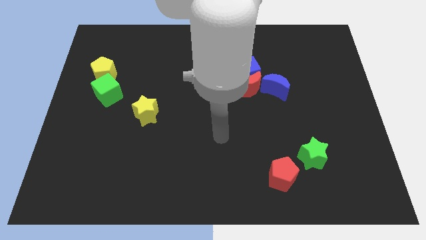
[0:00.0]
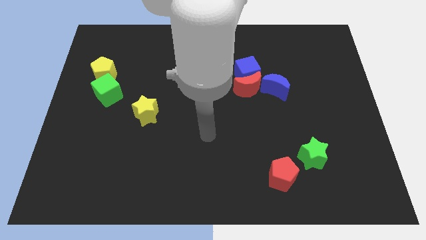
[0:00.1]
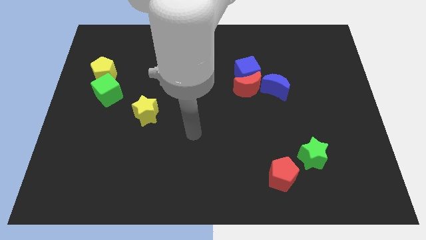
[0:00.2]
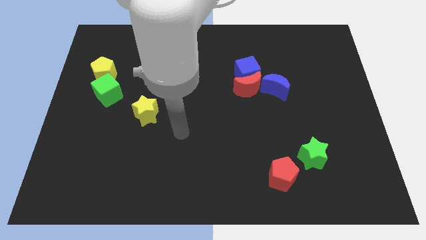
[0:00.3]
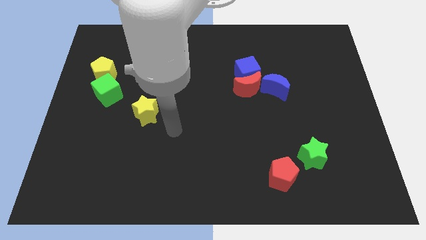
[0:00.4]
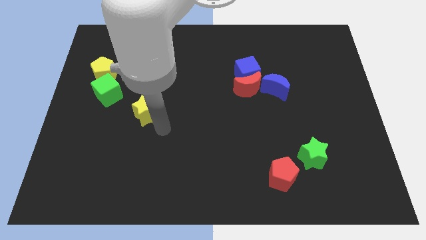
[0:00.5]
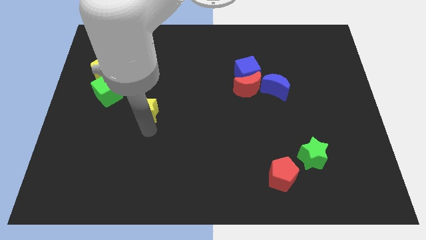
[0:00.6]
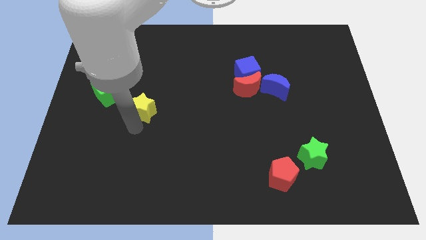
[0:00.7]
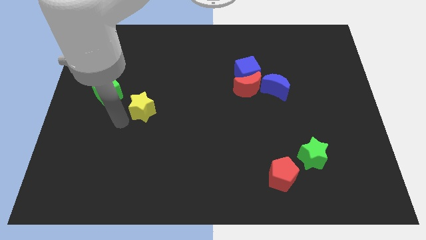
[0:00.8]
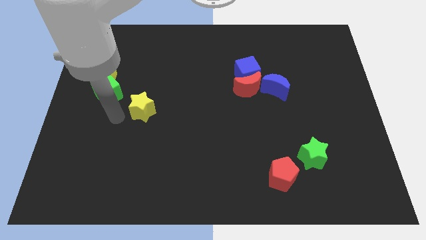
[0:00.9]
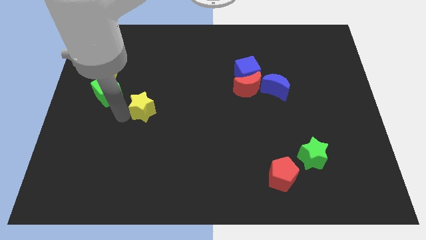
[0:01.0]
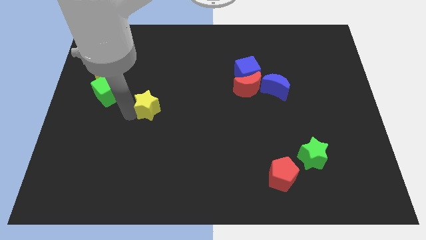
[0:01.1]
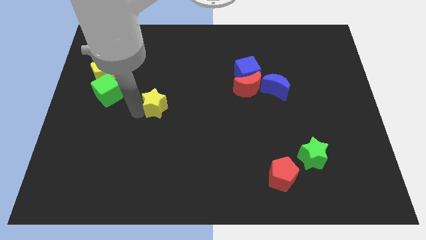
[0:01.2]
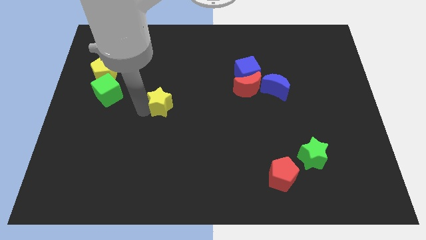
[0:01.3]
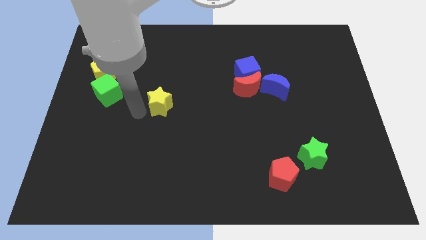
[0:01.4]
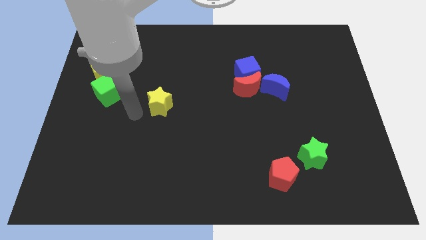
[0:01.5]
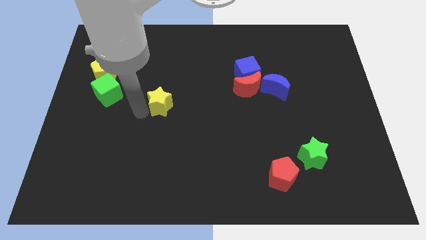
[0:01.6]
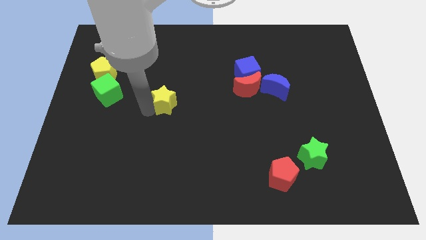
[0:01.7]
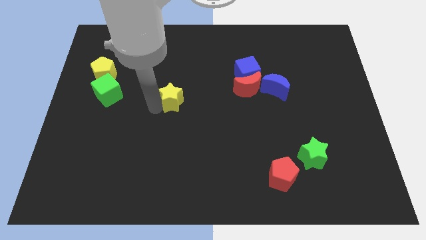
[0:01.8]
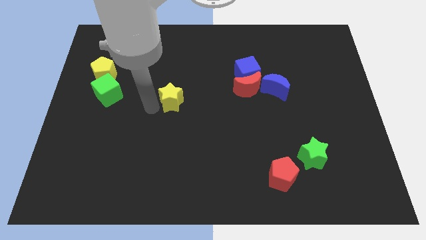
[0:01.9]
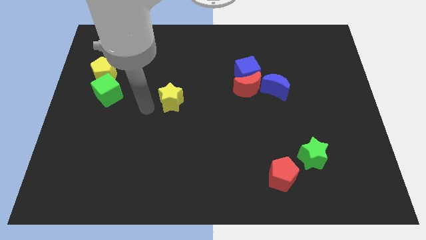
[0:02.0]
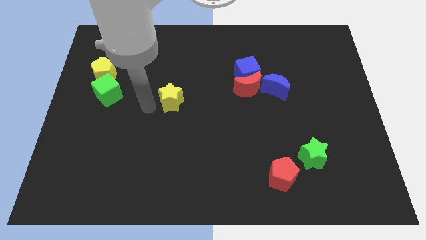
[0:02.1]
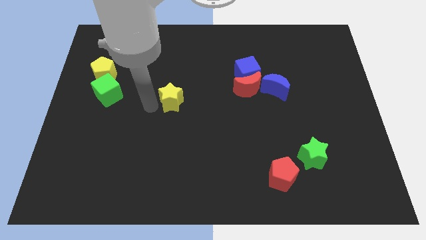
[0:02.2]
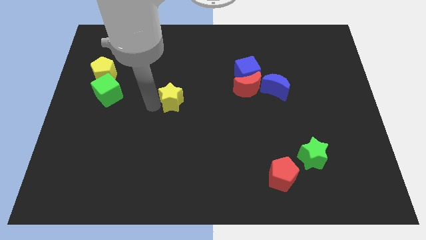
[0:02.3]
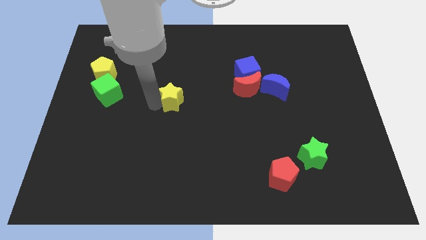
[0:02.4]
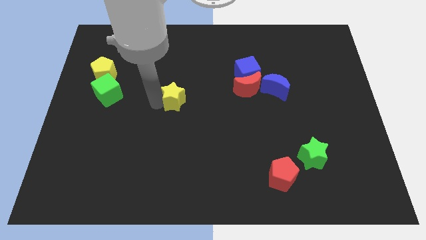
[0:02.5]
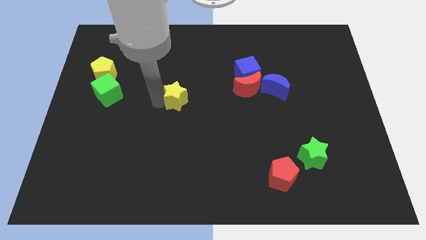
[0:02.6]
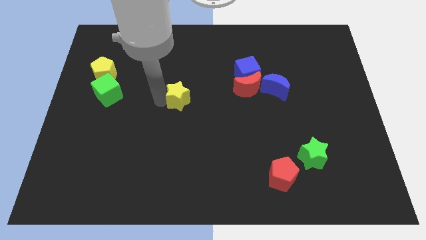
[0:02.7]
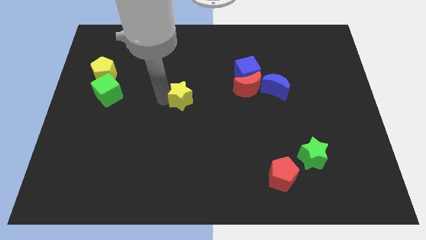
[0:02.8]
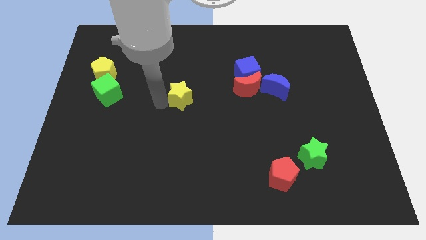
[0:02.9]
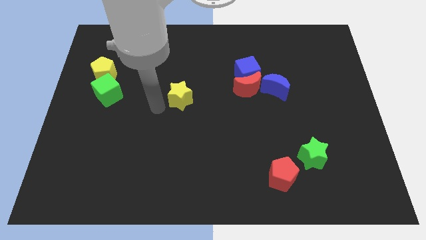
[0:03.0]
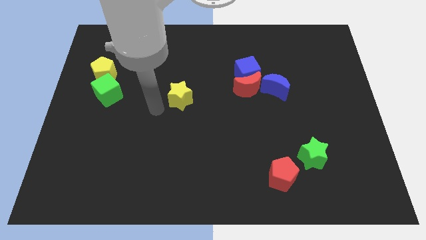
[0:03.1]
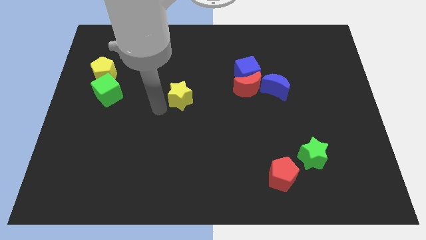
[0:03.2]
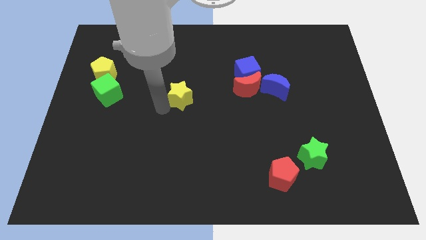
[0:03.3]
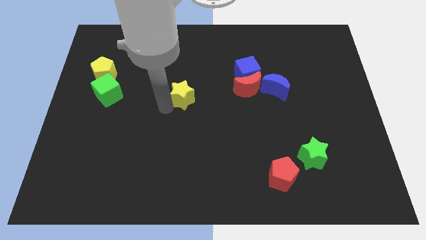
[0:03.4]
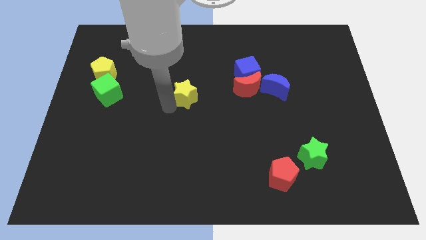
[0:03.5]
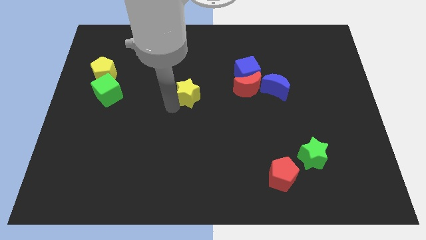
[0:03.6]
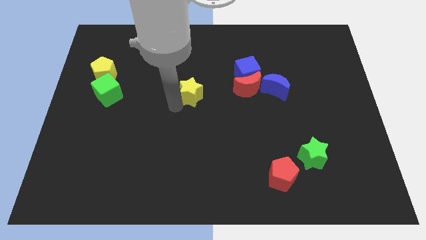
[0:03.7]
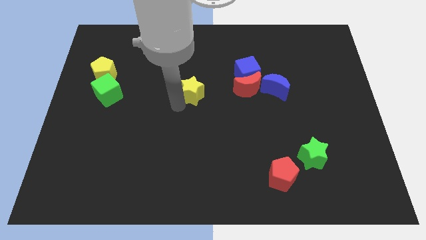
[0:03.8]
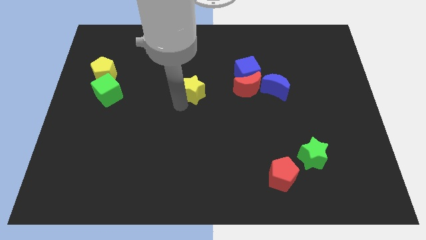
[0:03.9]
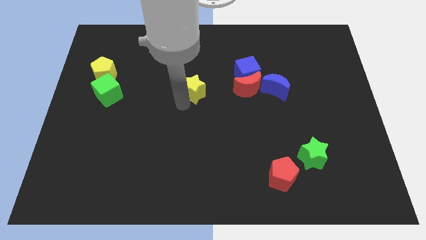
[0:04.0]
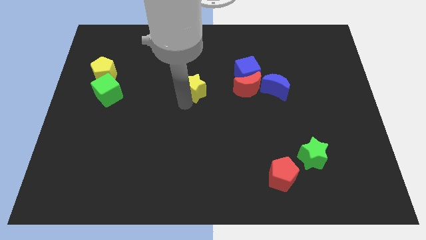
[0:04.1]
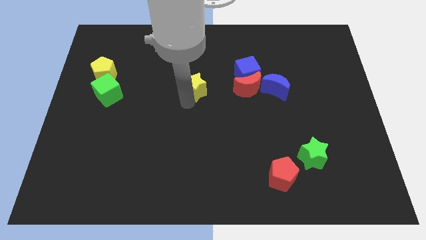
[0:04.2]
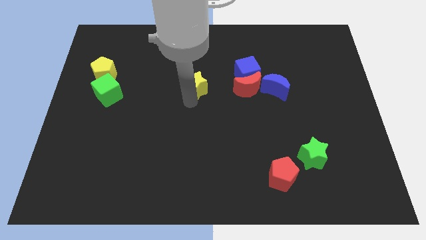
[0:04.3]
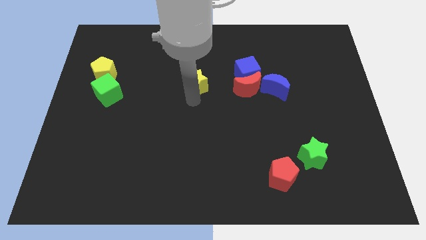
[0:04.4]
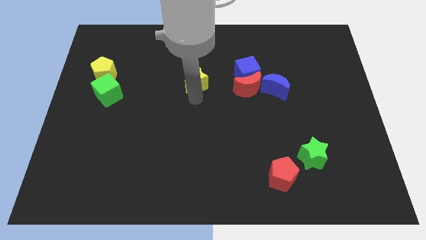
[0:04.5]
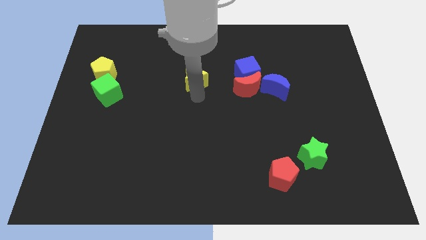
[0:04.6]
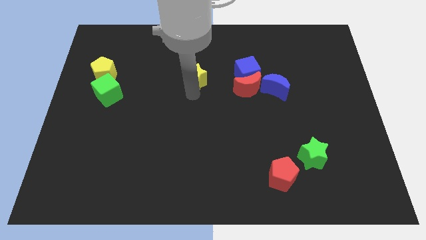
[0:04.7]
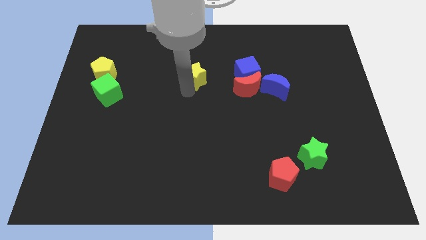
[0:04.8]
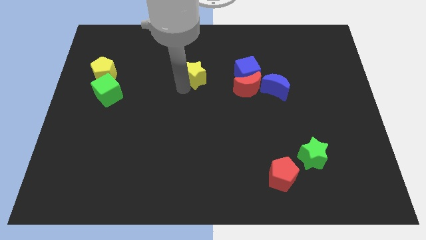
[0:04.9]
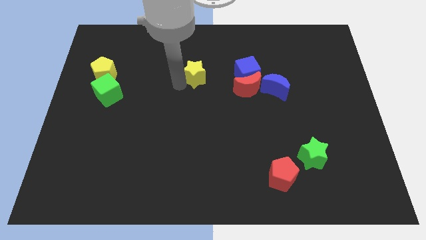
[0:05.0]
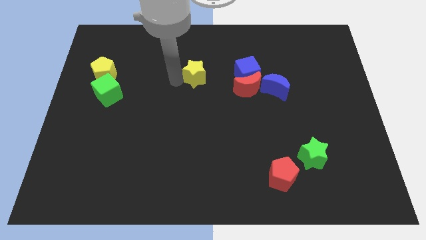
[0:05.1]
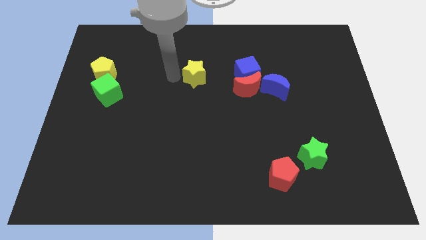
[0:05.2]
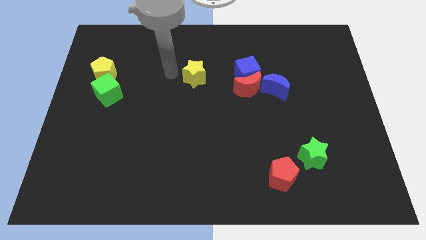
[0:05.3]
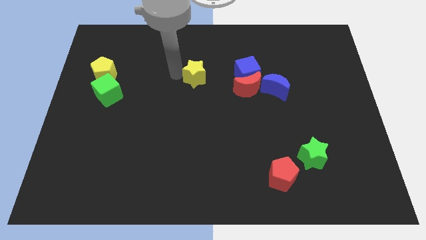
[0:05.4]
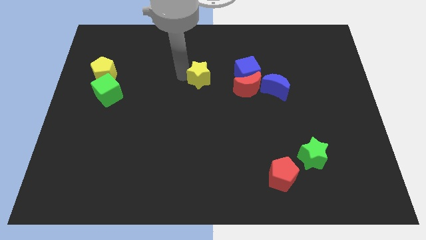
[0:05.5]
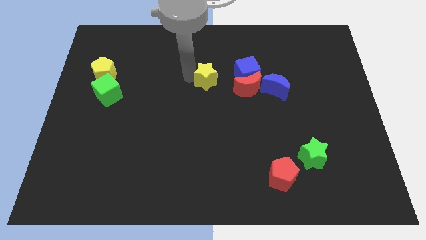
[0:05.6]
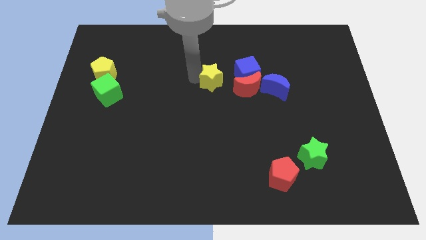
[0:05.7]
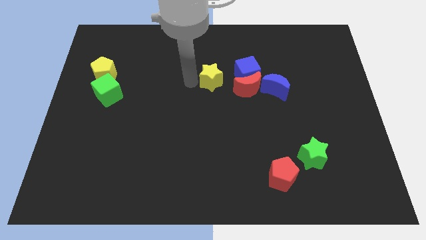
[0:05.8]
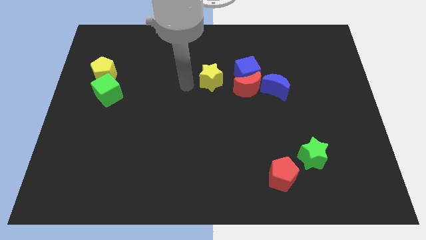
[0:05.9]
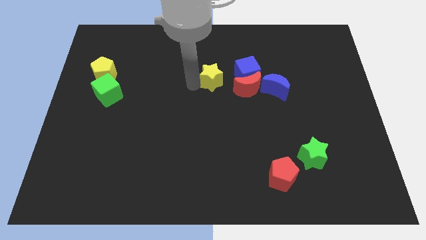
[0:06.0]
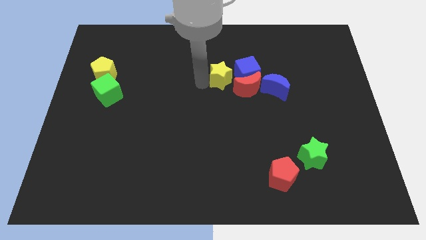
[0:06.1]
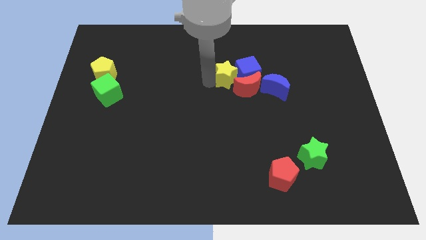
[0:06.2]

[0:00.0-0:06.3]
move the yellow star next to the blue cube

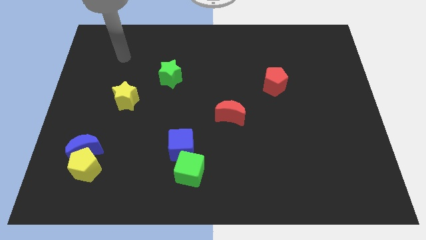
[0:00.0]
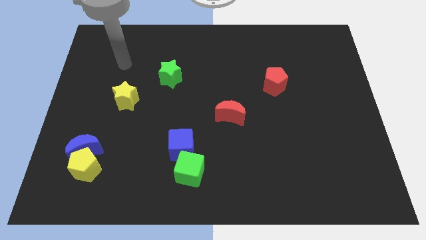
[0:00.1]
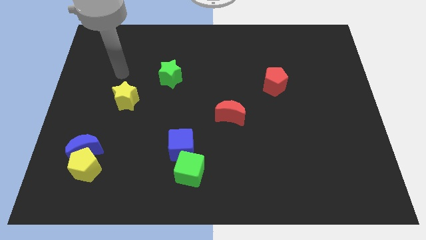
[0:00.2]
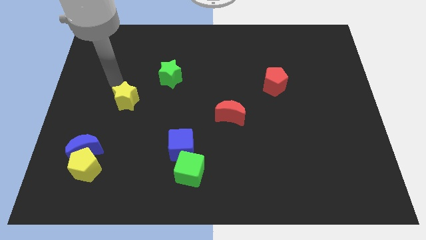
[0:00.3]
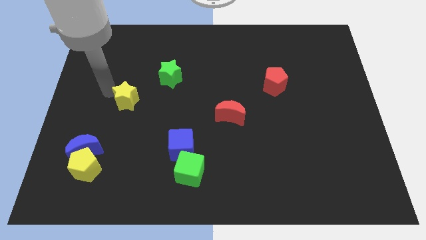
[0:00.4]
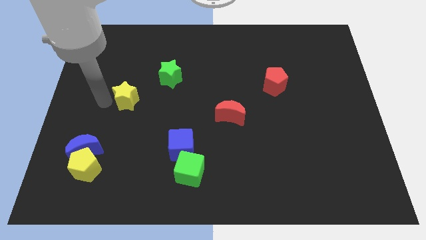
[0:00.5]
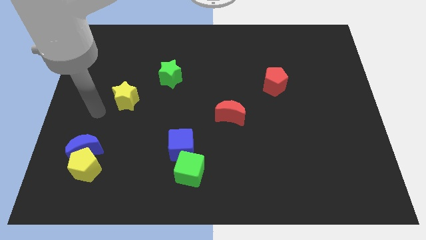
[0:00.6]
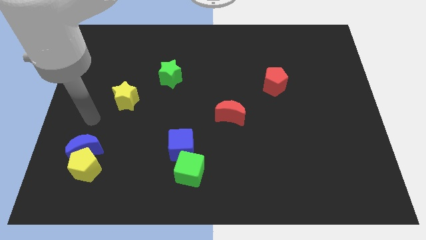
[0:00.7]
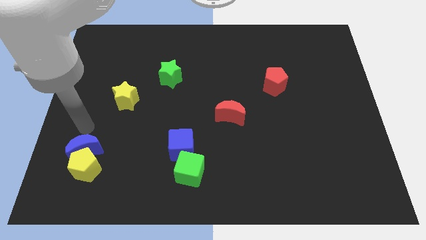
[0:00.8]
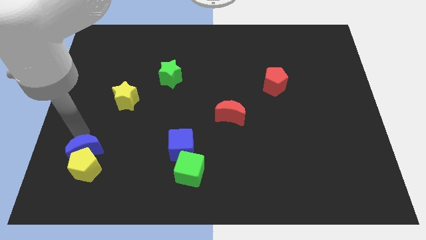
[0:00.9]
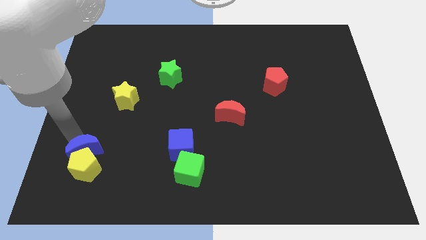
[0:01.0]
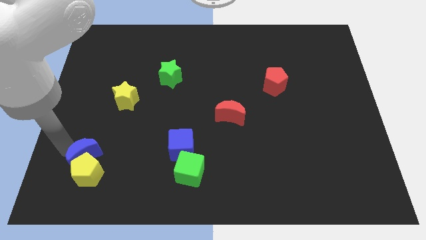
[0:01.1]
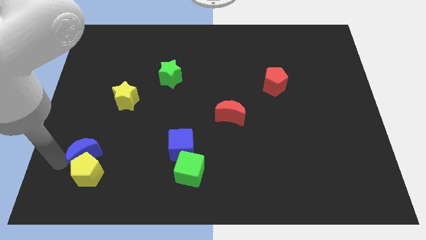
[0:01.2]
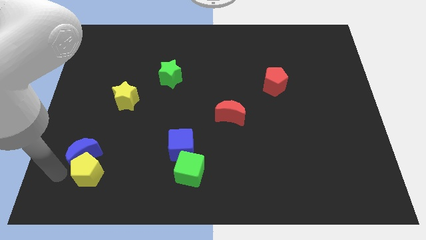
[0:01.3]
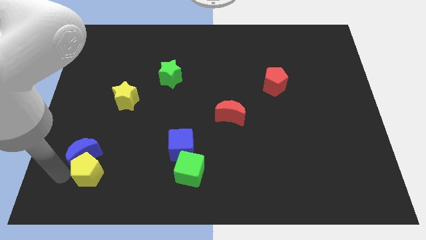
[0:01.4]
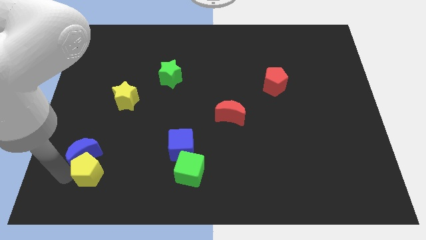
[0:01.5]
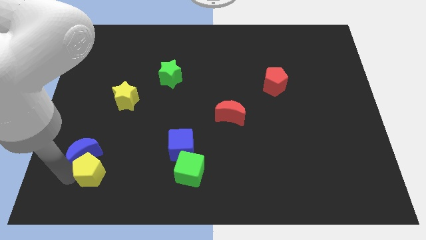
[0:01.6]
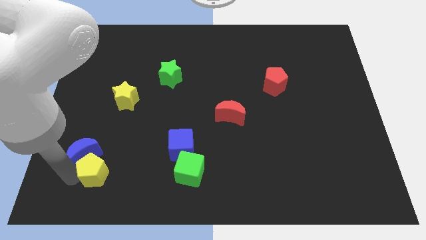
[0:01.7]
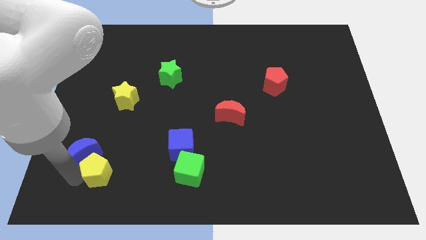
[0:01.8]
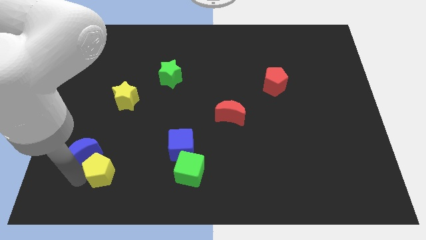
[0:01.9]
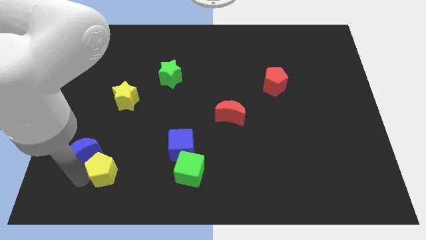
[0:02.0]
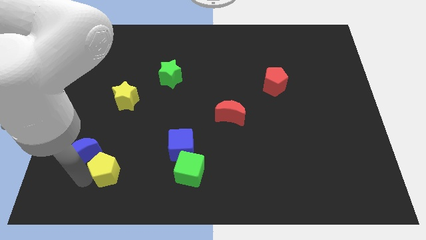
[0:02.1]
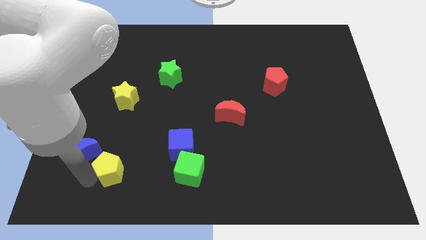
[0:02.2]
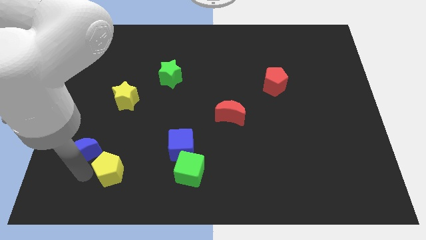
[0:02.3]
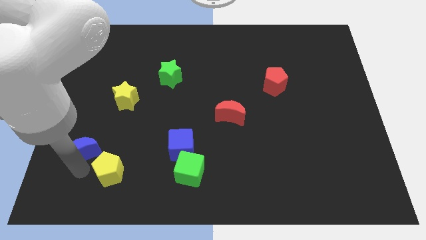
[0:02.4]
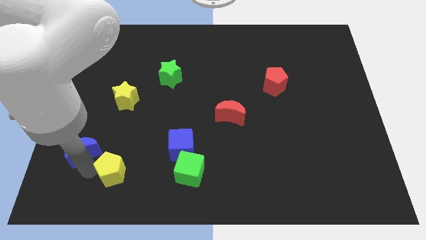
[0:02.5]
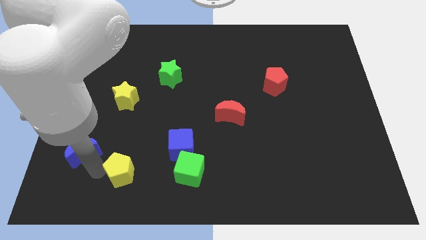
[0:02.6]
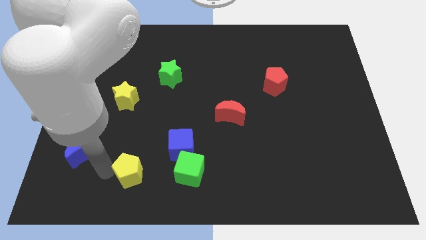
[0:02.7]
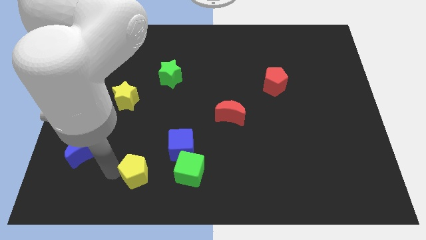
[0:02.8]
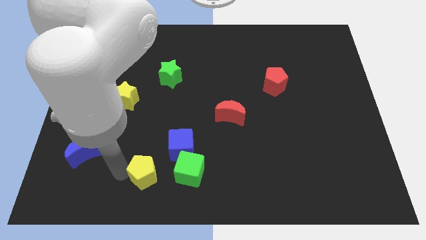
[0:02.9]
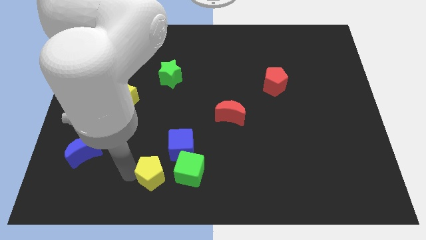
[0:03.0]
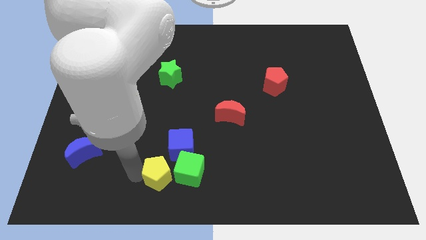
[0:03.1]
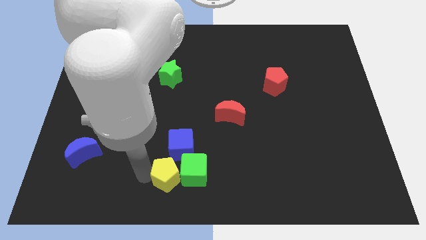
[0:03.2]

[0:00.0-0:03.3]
put the yellow pentagon to the green cube
